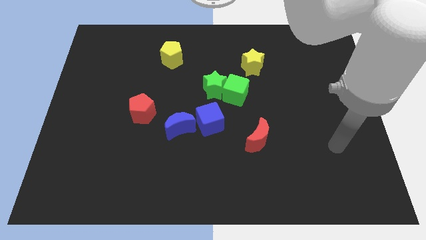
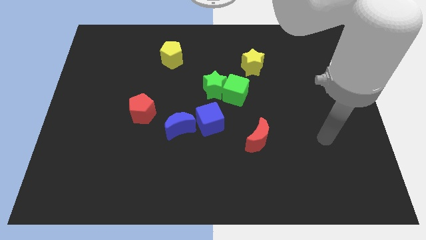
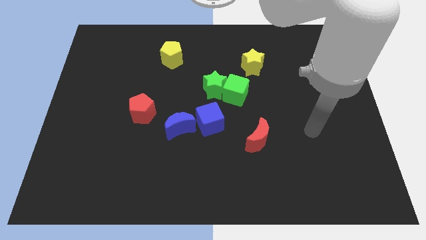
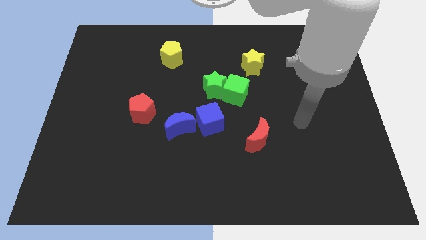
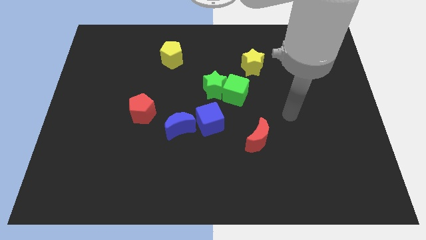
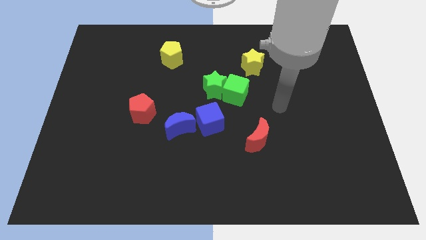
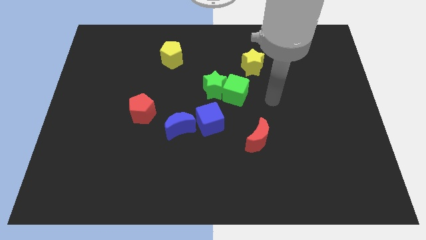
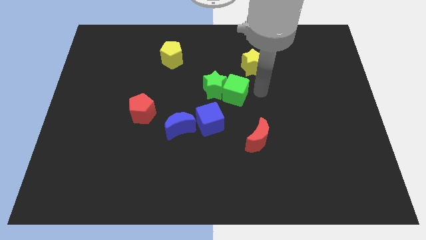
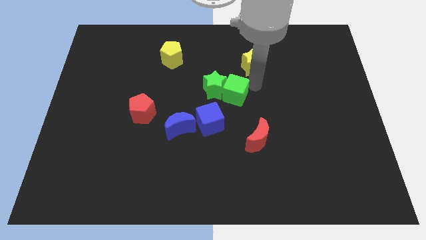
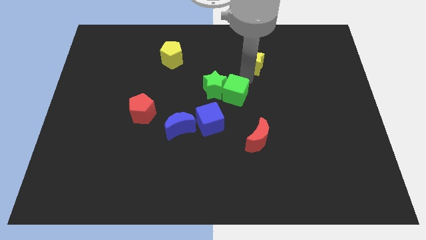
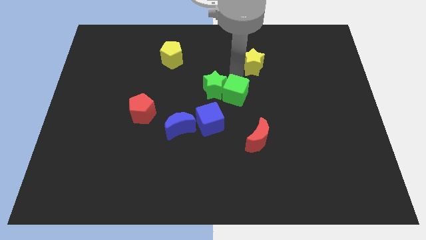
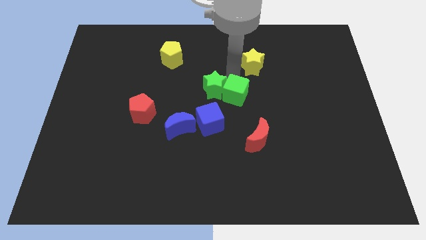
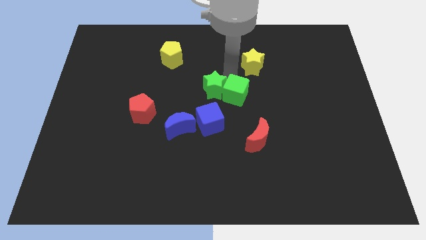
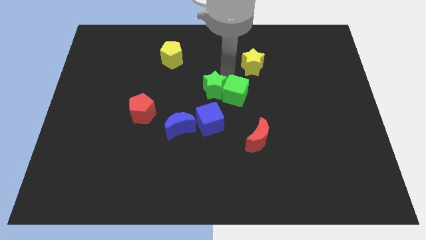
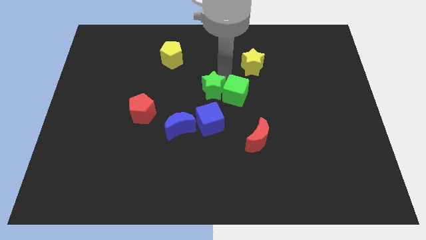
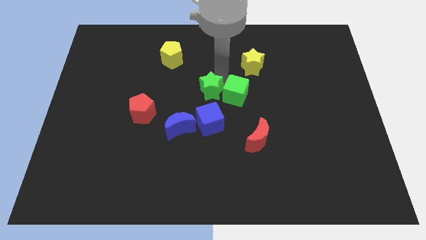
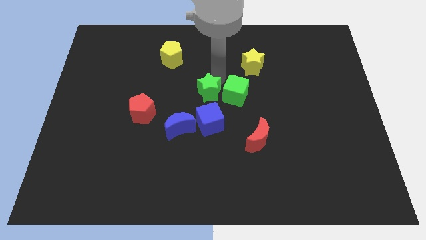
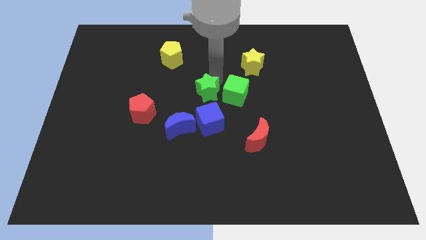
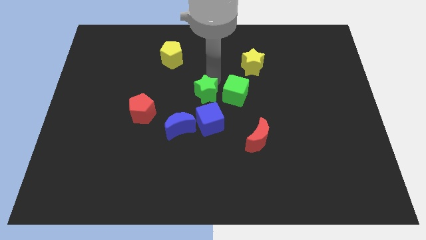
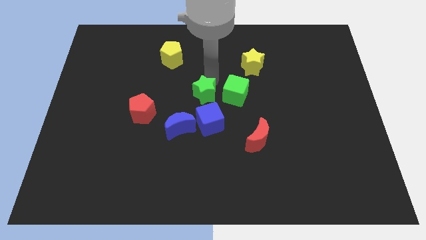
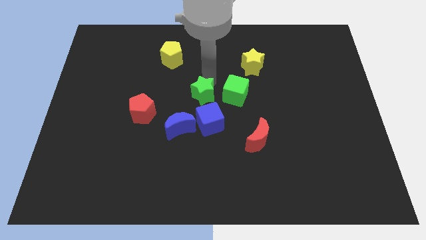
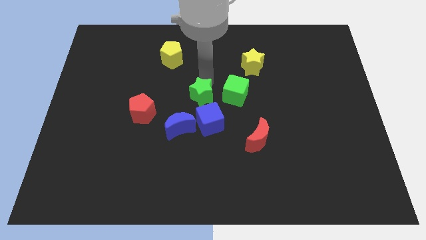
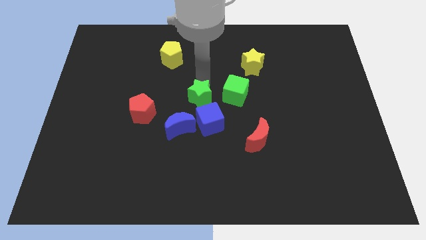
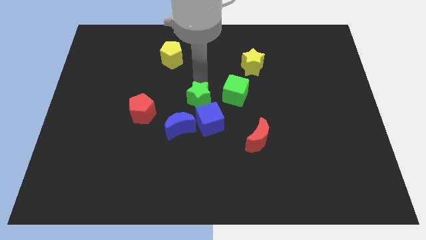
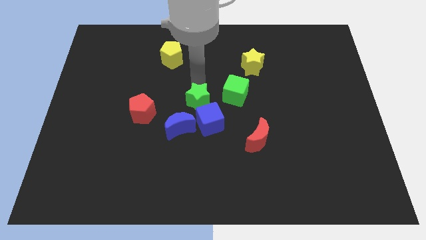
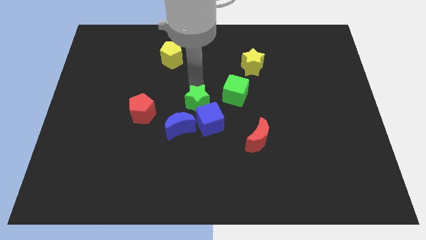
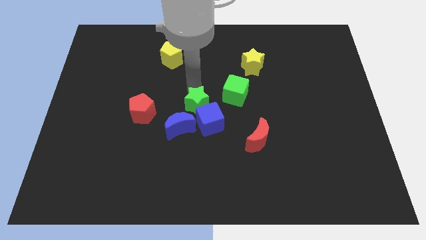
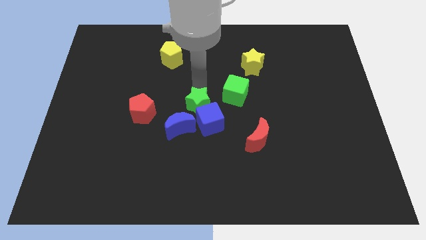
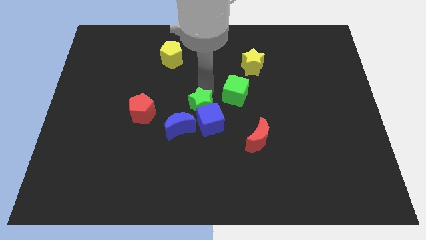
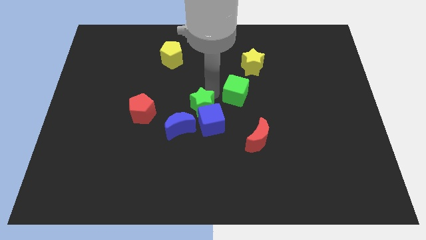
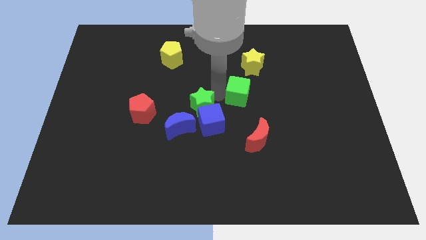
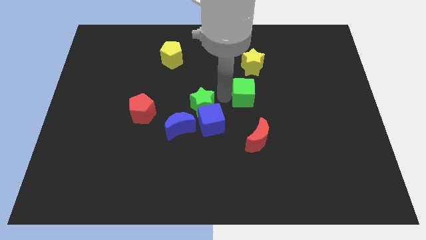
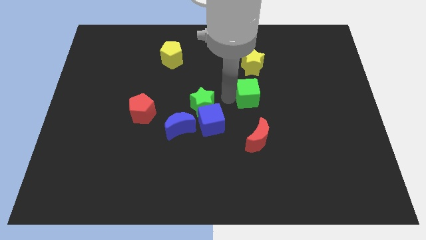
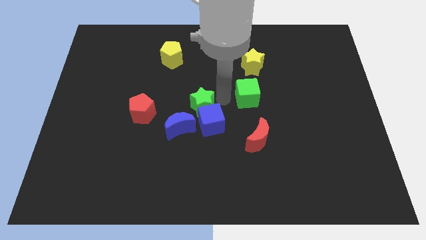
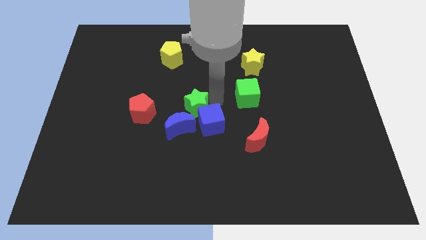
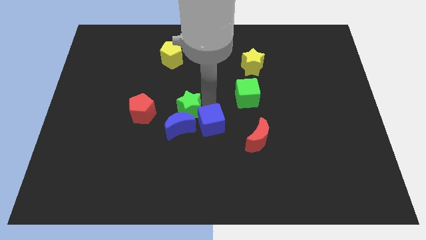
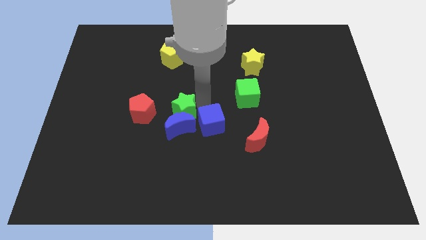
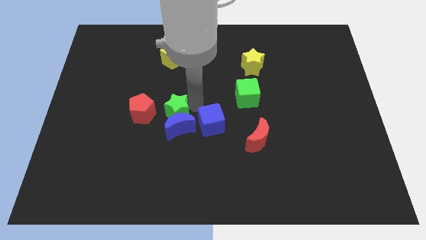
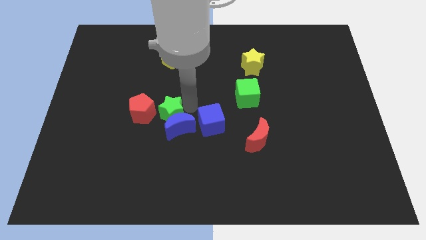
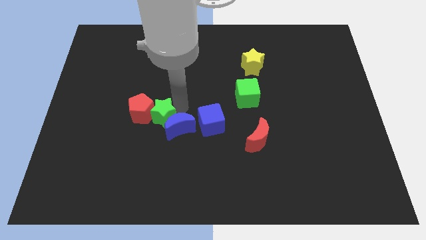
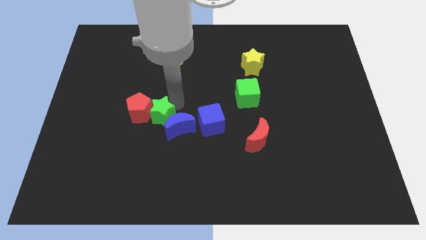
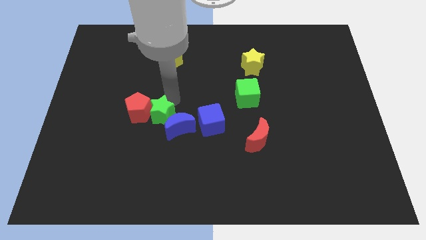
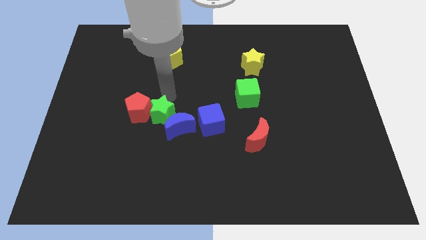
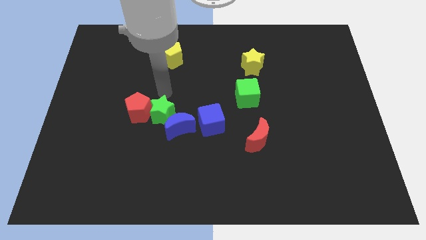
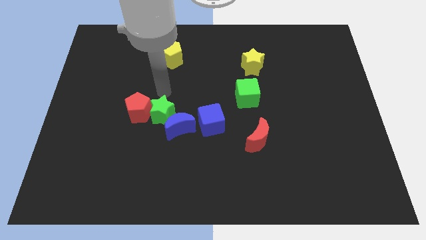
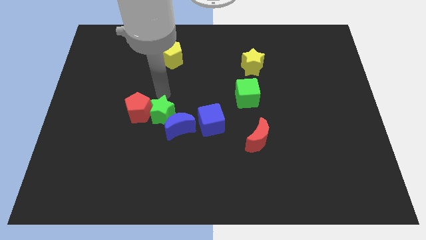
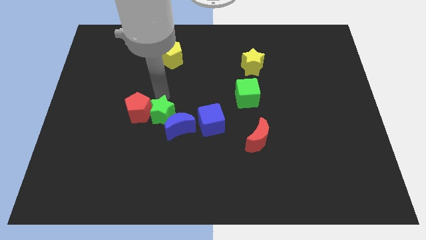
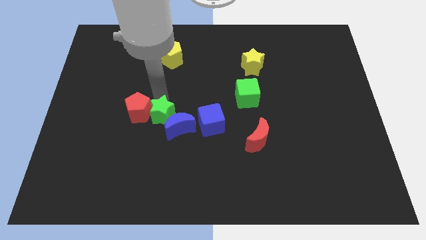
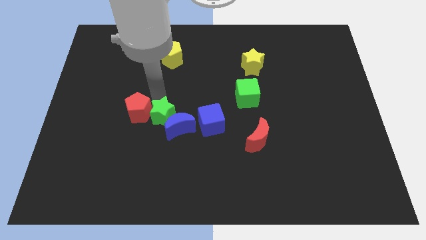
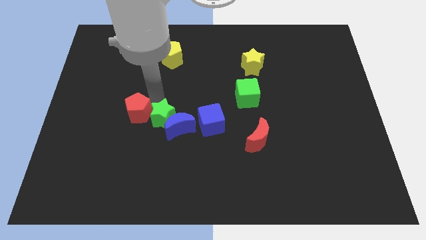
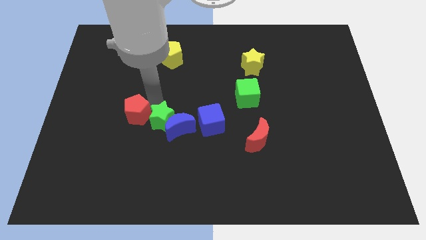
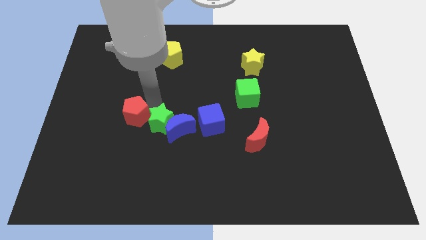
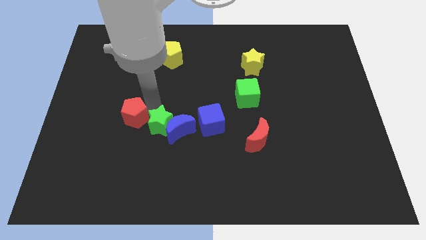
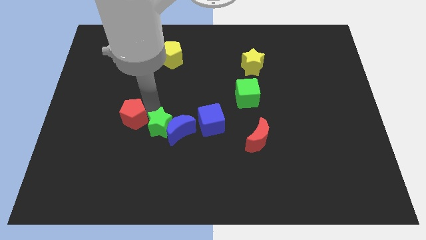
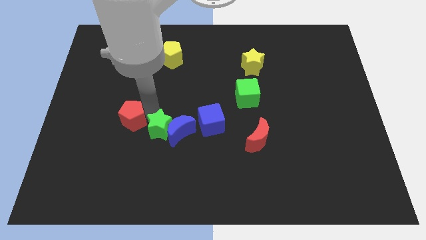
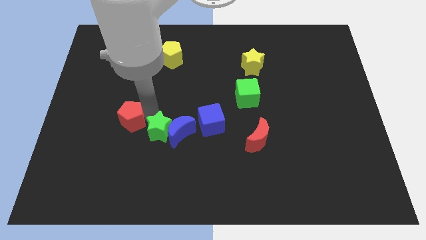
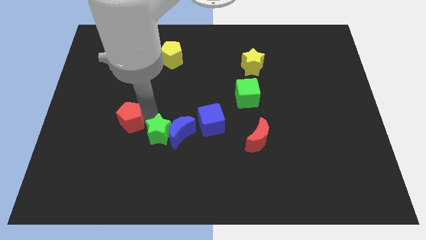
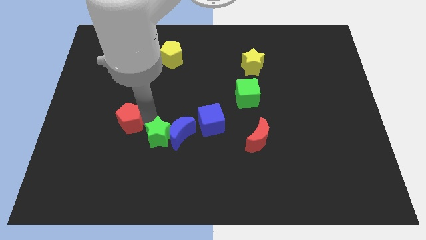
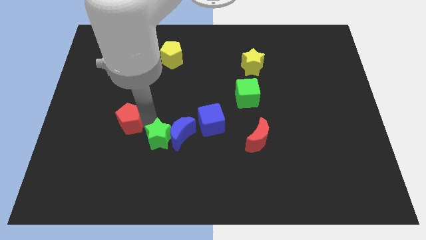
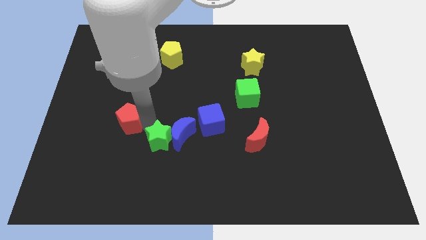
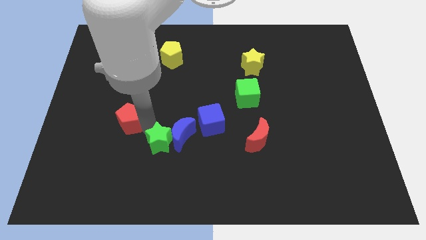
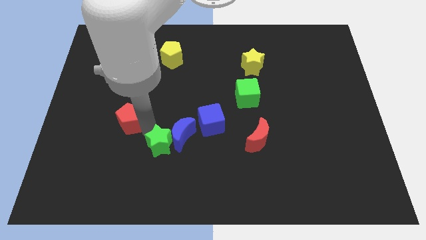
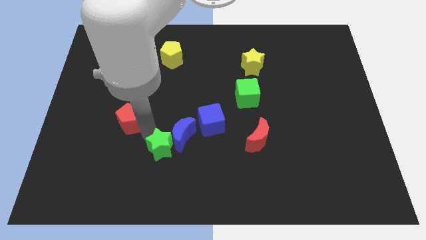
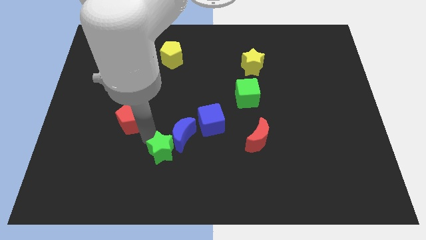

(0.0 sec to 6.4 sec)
slide the green star to the bottom of the blue moon

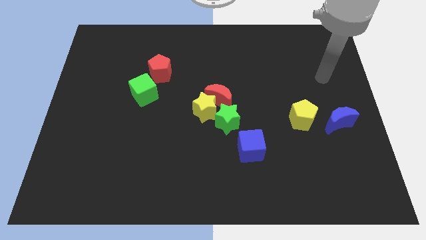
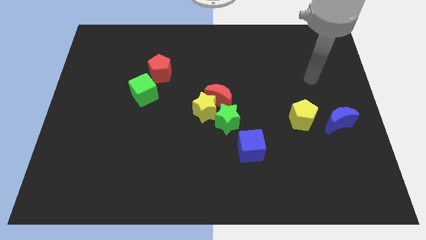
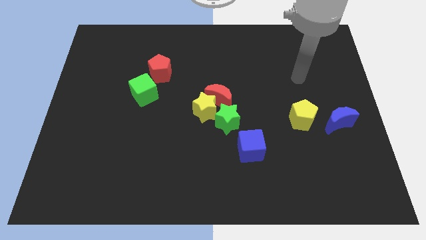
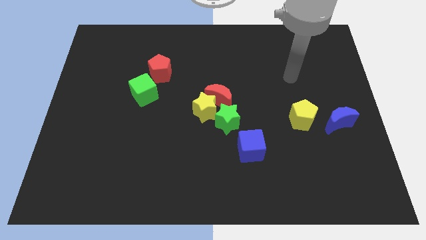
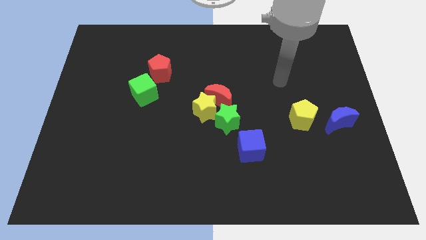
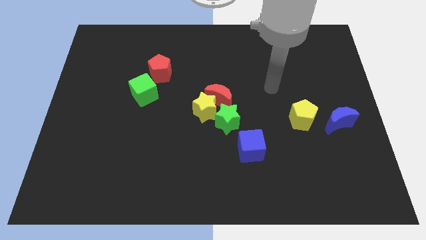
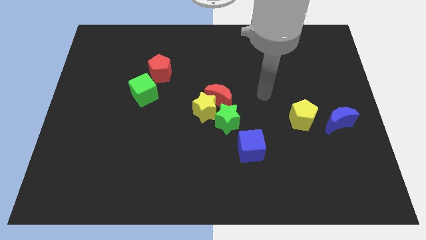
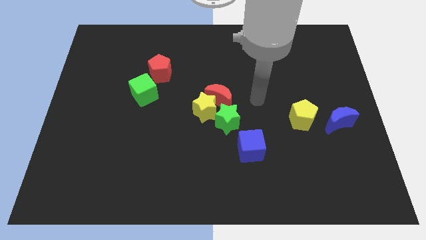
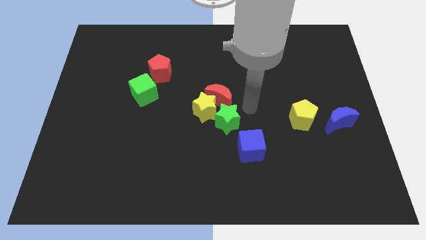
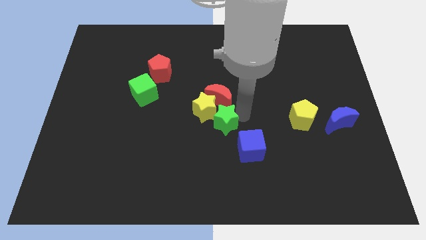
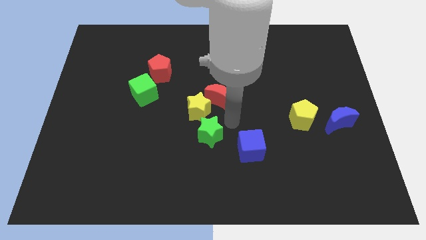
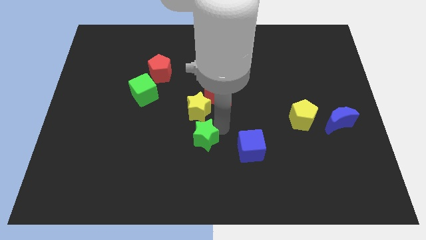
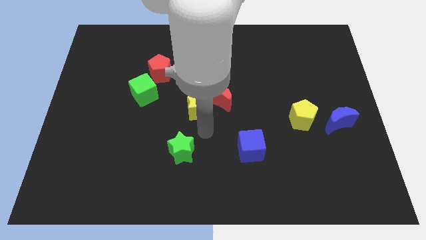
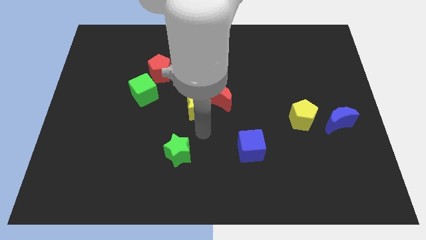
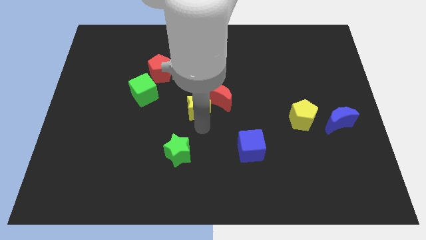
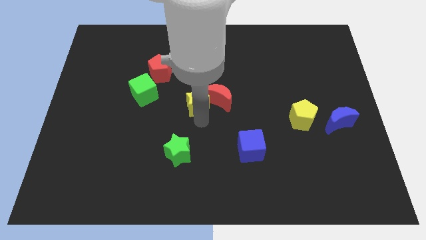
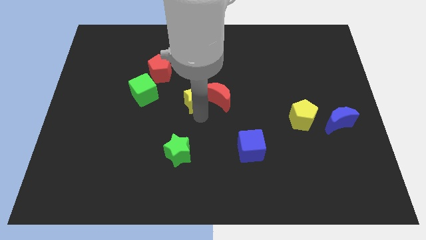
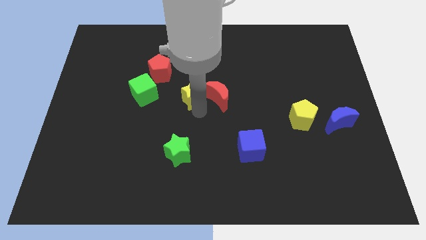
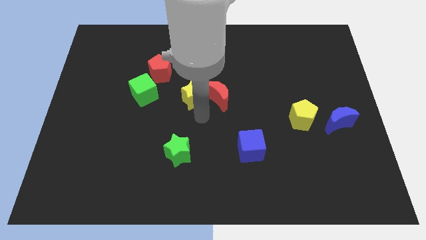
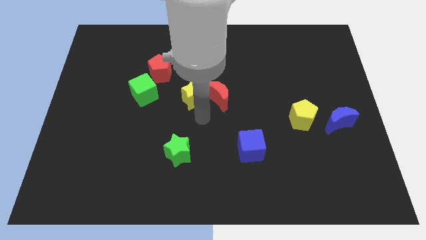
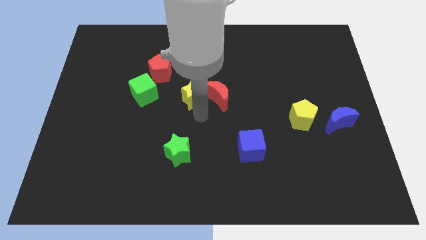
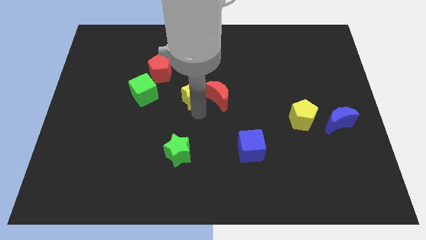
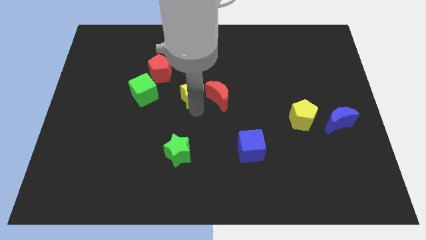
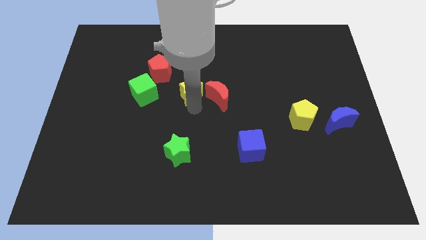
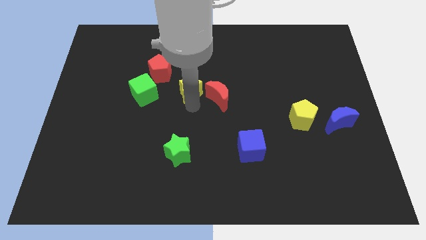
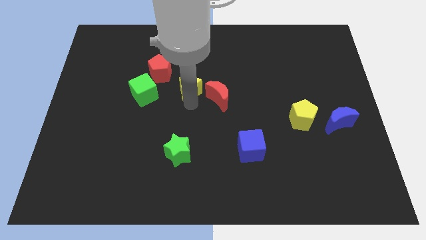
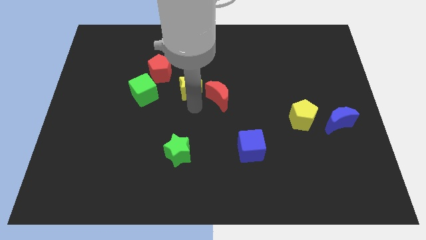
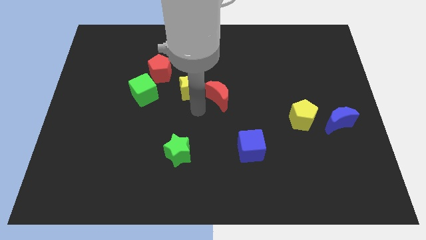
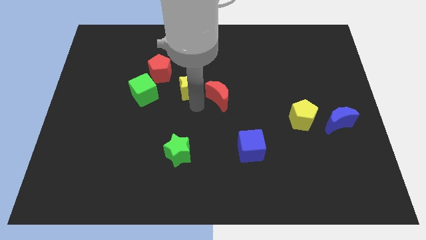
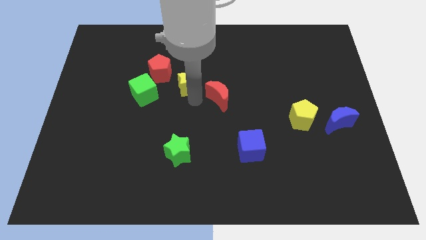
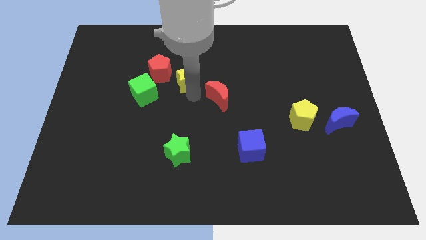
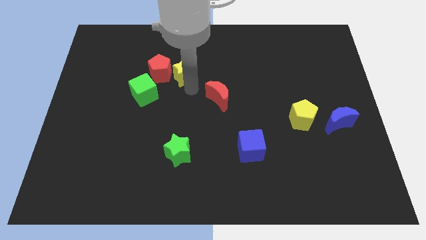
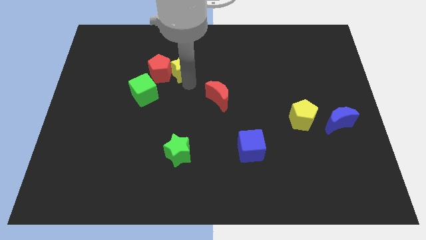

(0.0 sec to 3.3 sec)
push the yellow star diagonally up and to the right of the red pentagon
